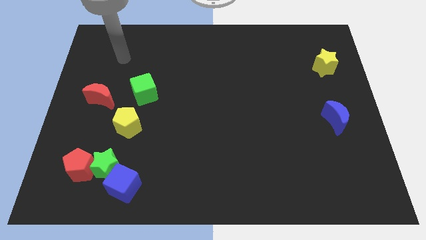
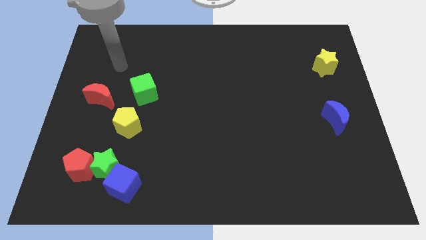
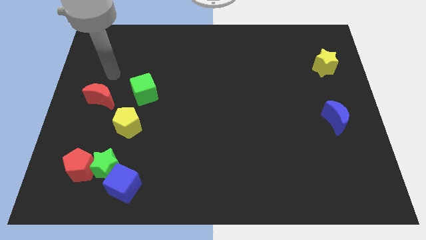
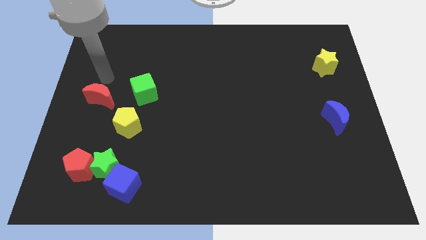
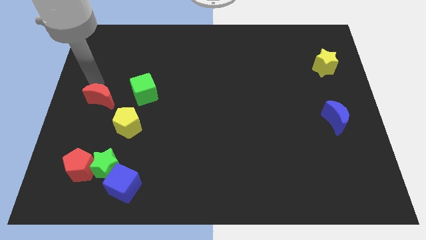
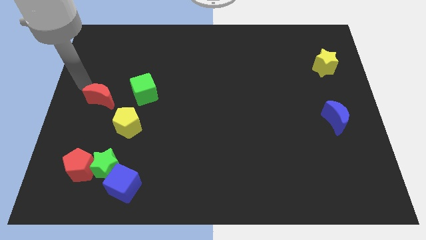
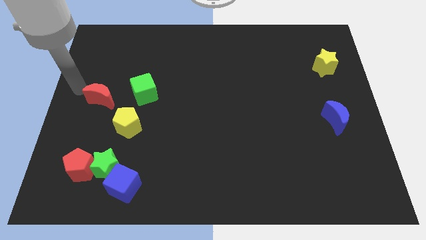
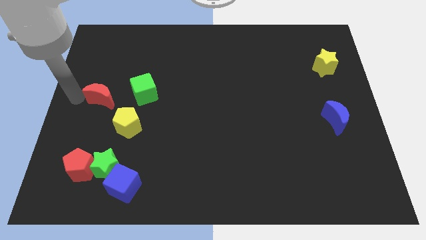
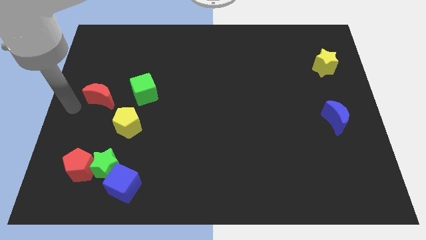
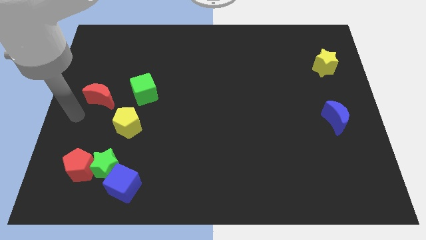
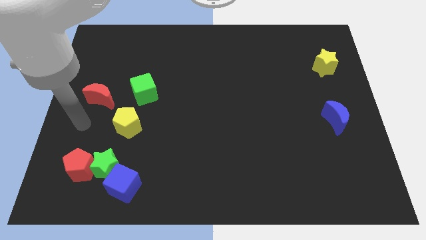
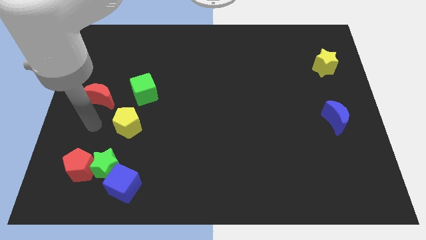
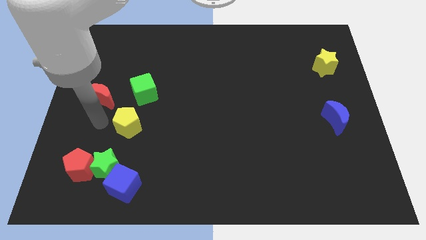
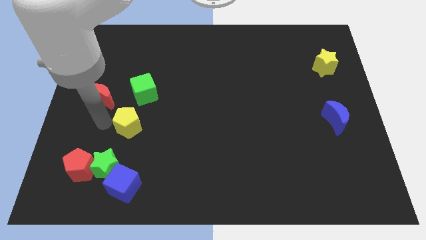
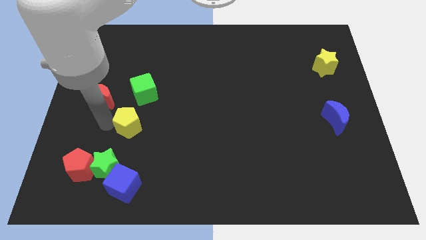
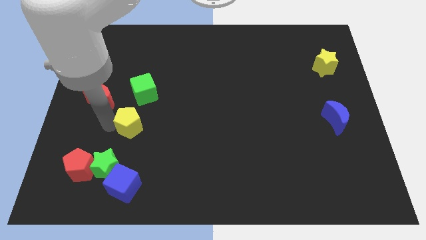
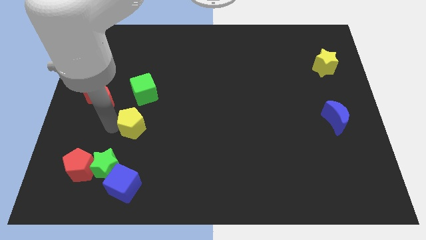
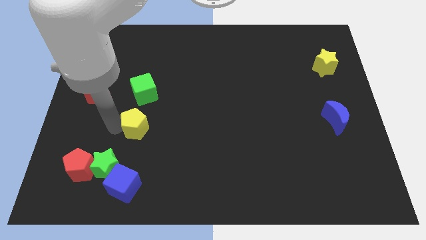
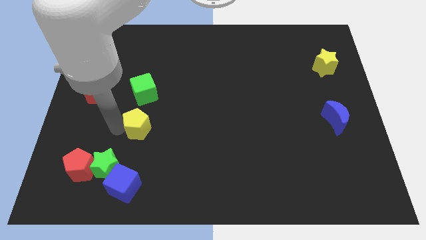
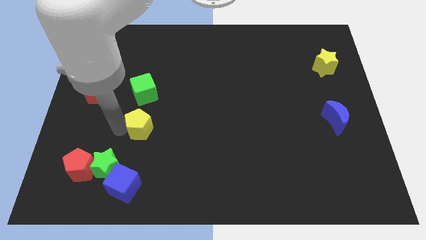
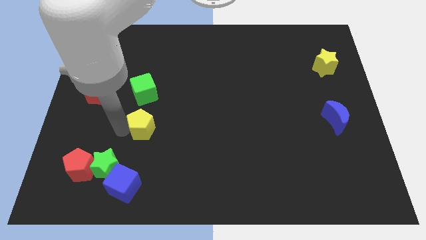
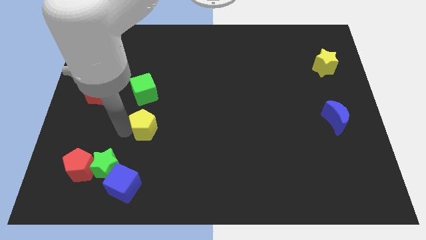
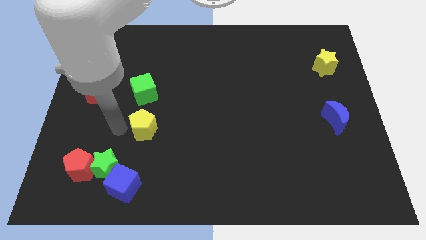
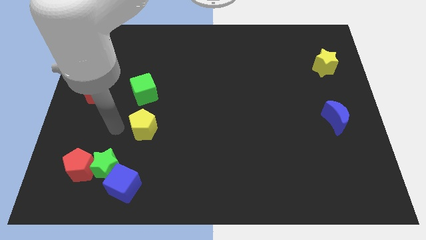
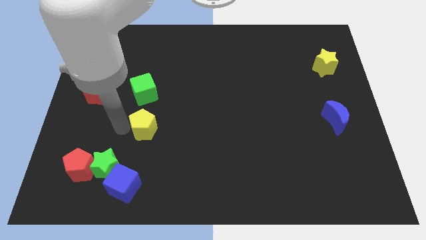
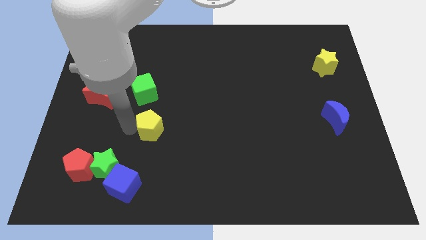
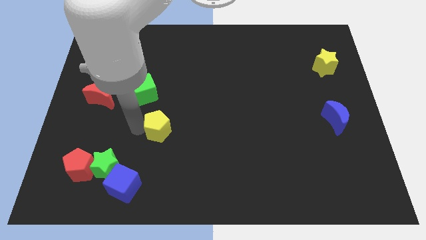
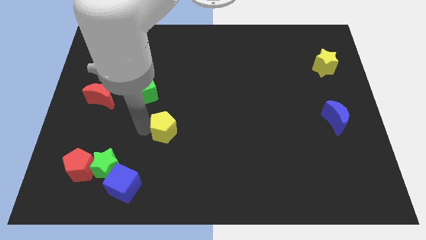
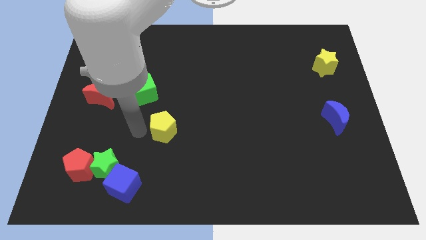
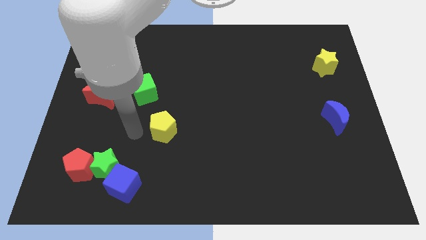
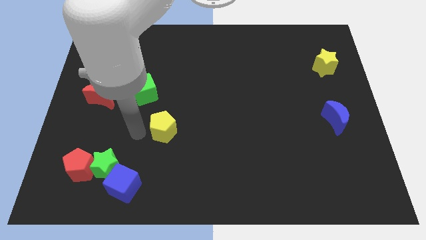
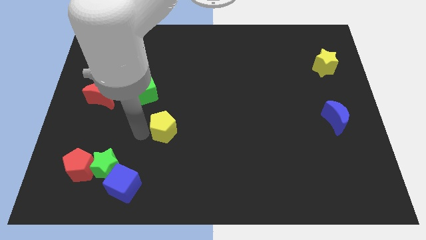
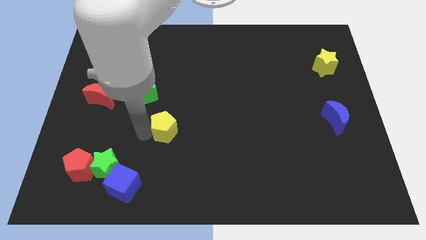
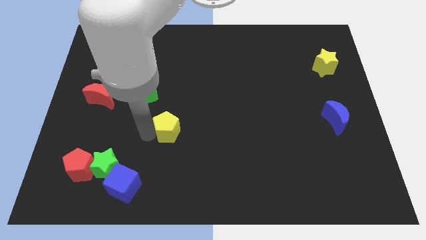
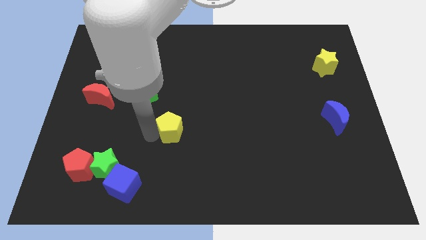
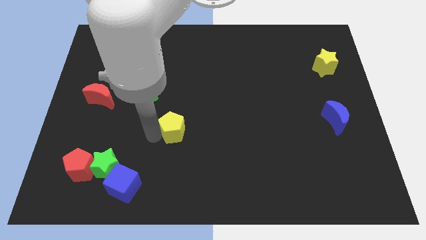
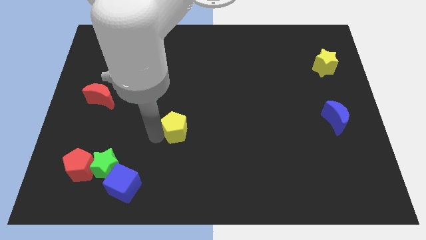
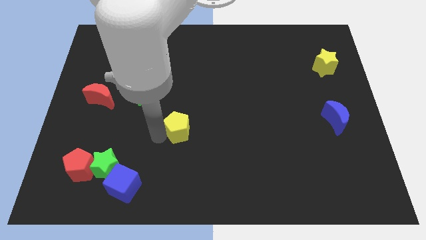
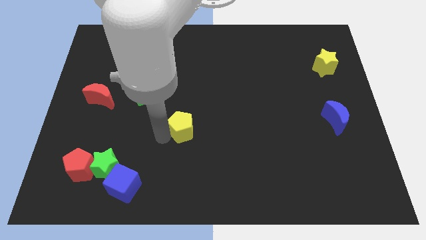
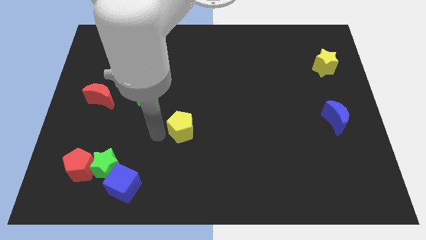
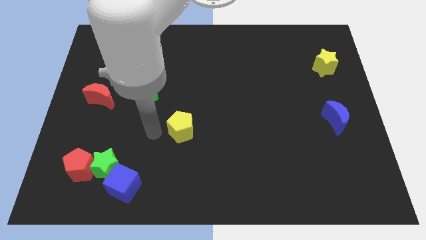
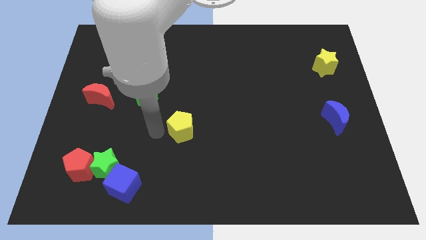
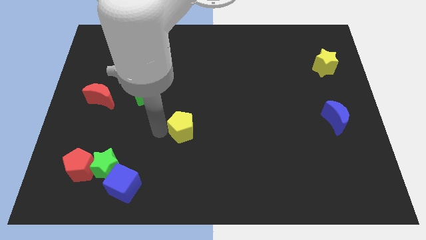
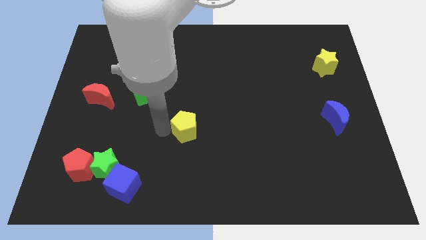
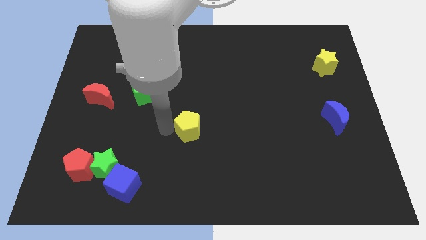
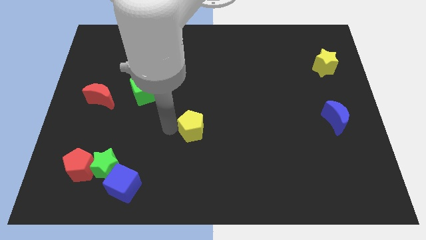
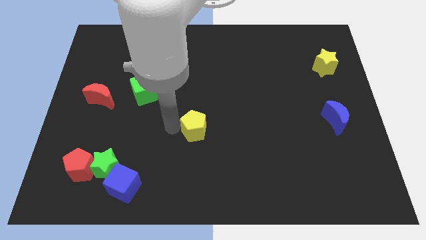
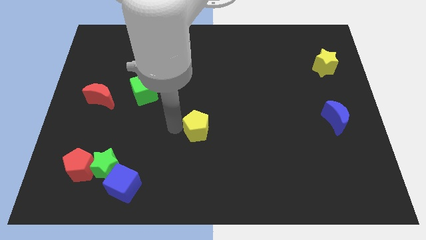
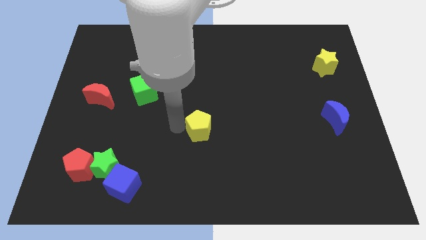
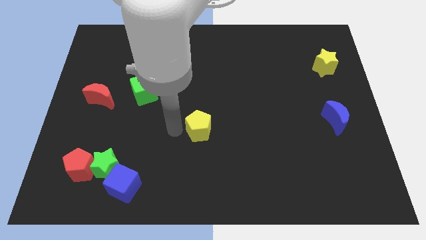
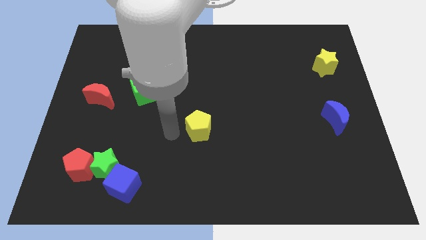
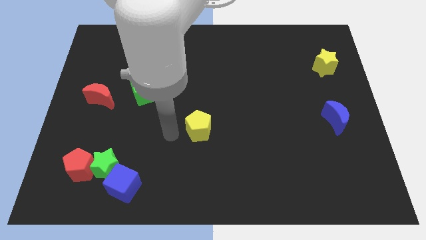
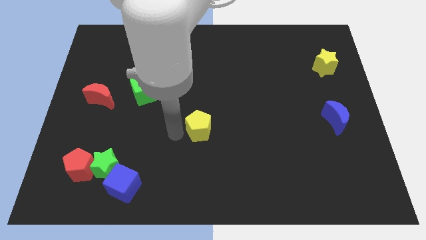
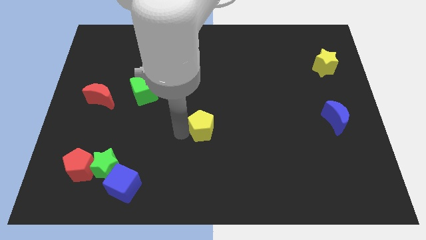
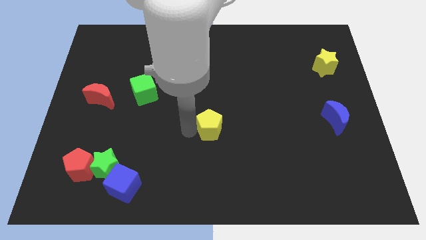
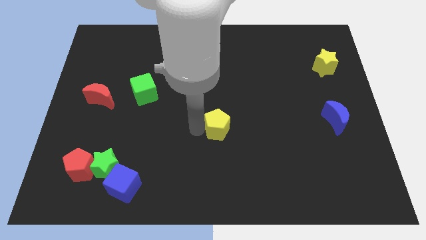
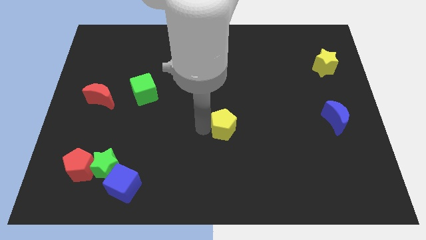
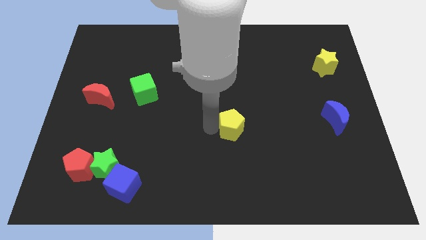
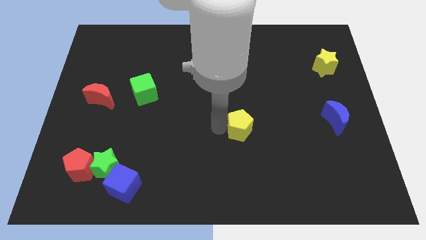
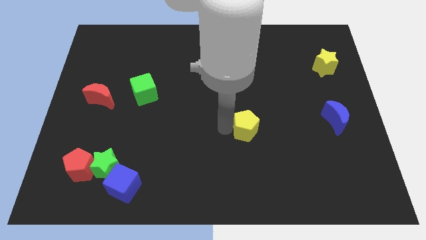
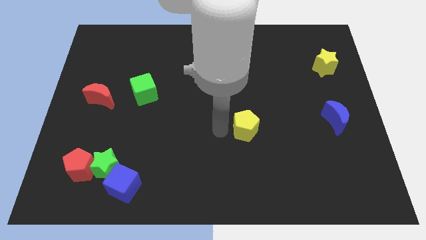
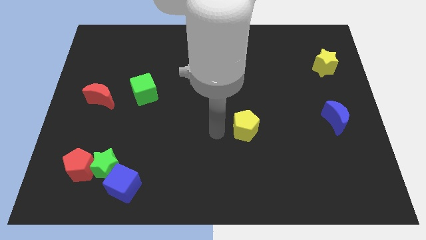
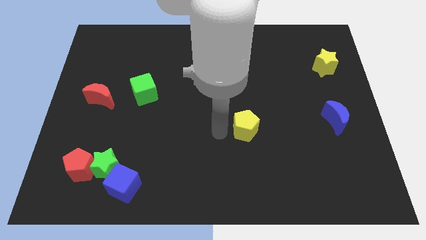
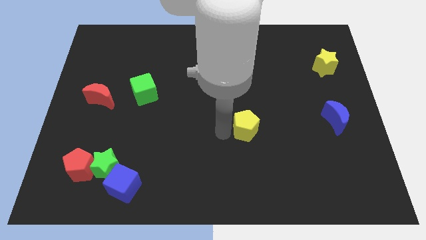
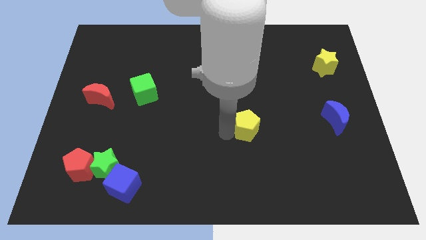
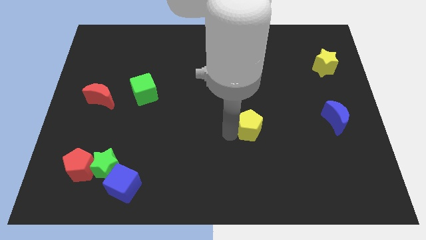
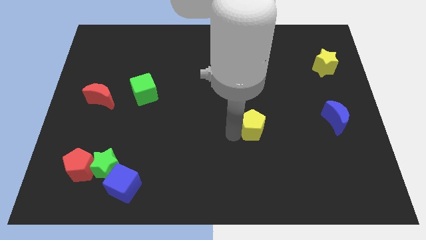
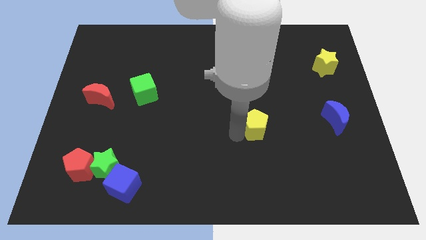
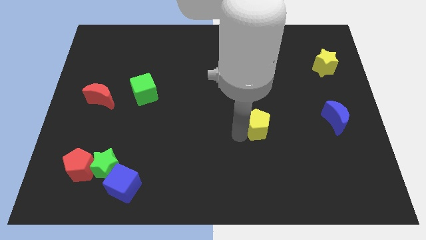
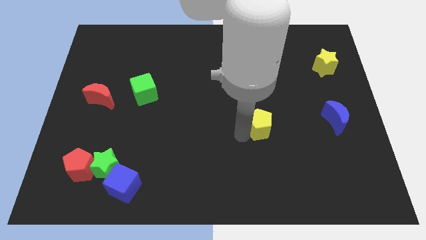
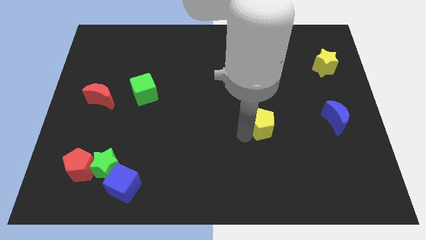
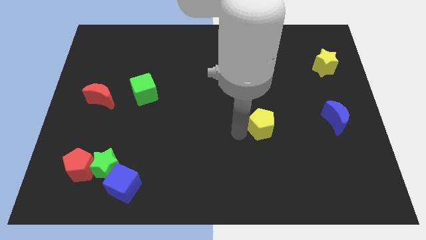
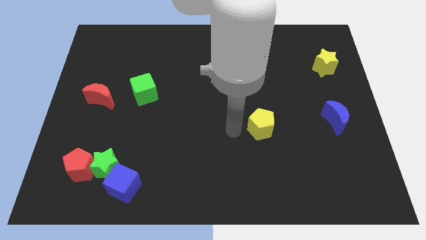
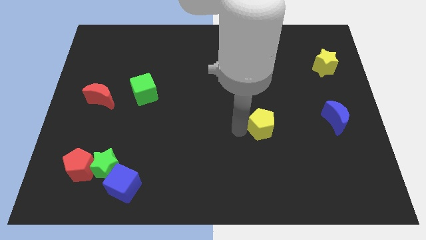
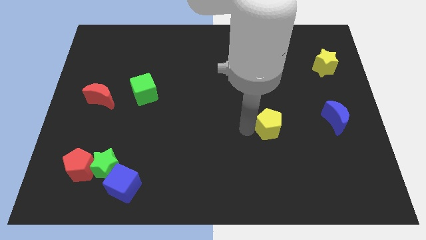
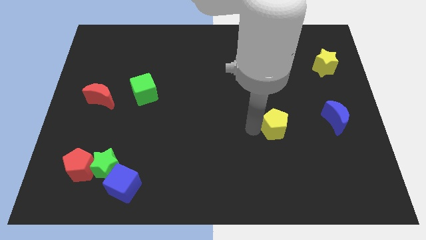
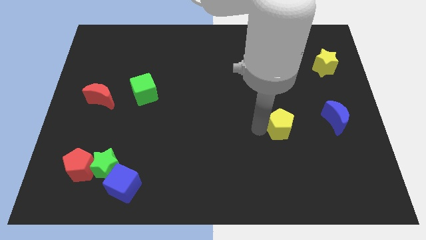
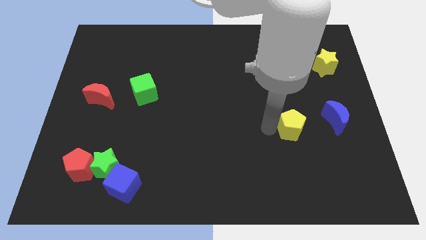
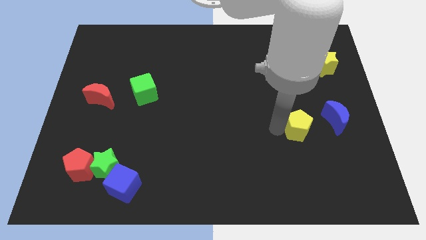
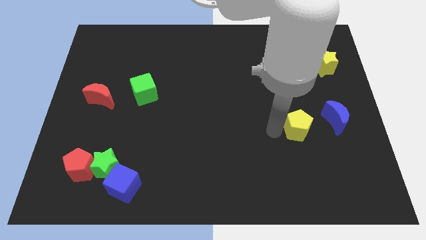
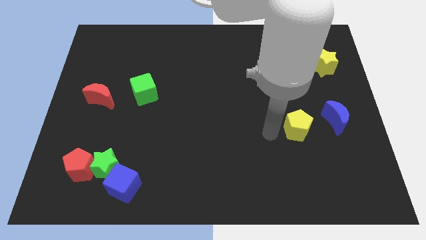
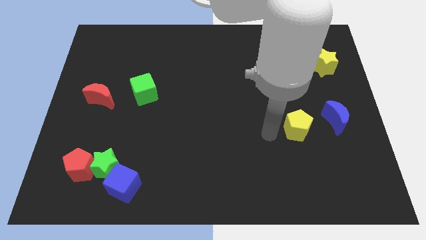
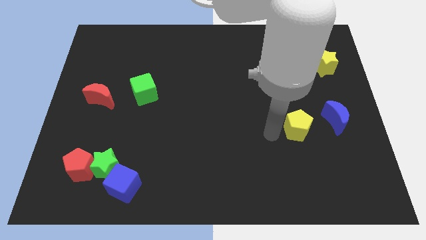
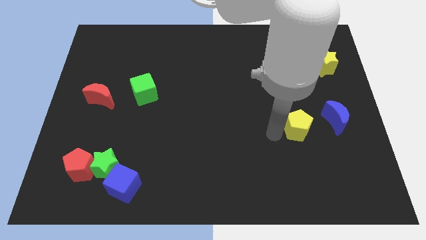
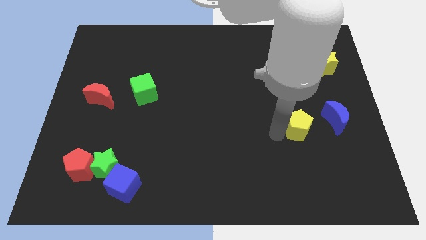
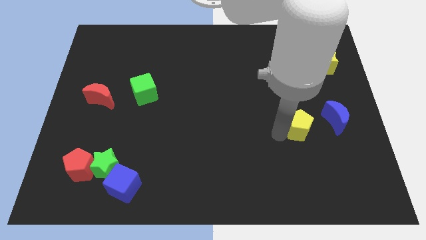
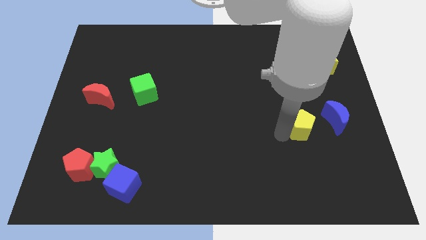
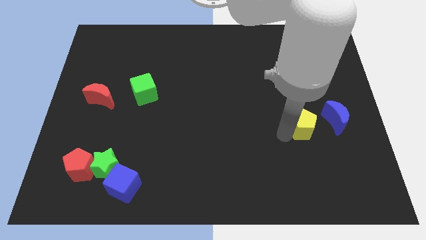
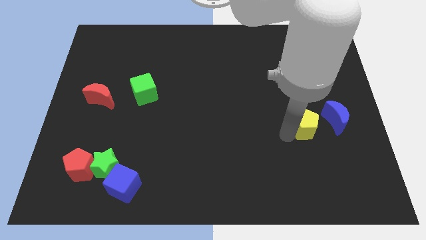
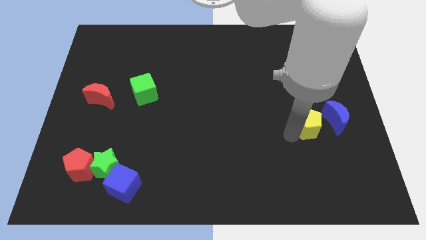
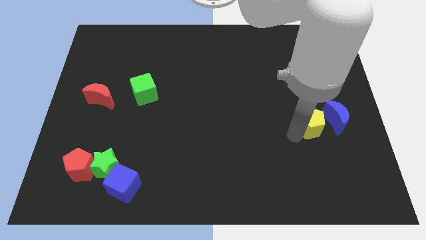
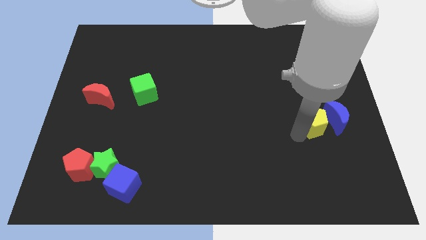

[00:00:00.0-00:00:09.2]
slide the yellow pentagon close to the blue moon
